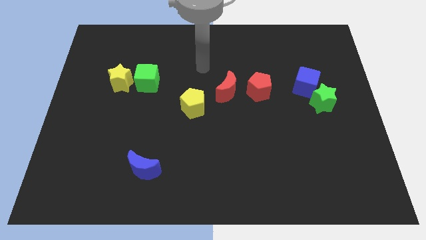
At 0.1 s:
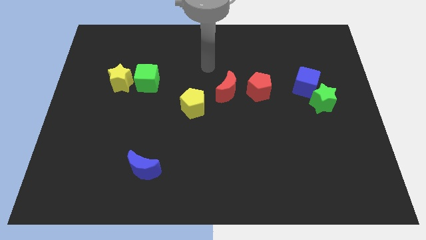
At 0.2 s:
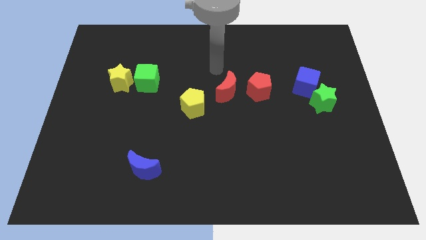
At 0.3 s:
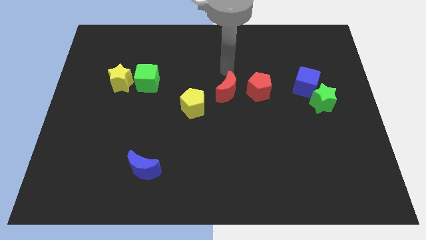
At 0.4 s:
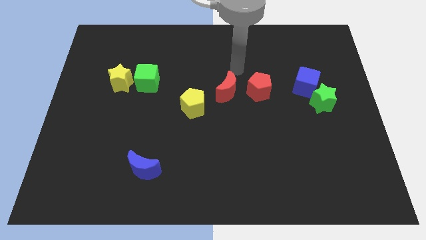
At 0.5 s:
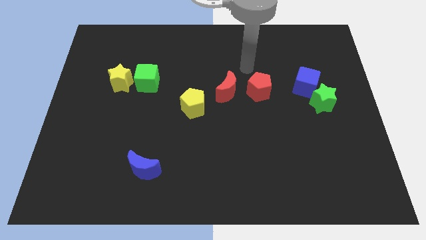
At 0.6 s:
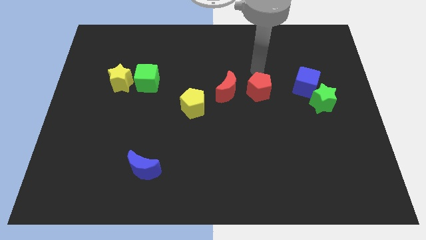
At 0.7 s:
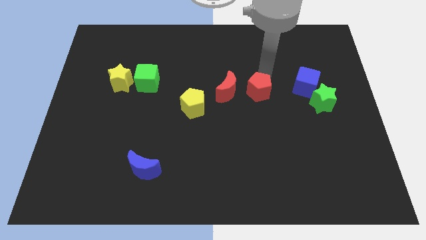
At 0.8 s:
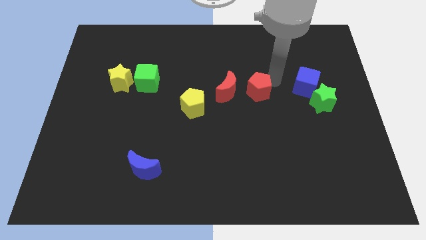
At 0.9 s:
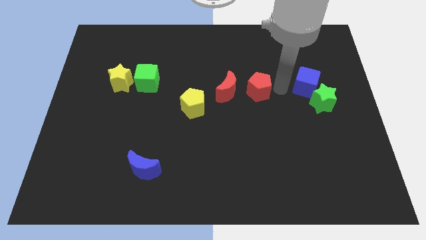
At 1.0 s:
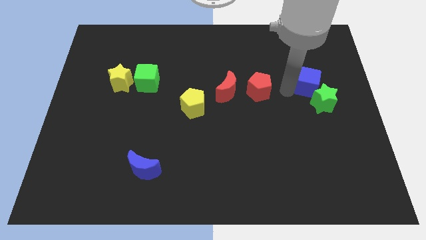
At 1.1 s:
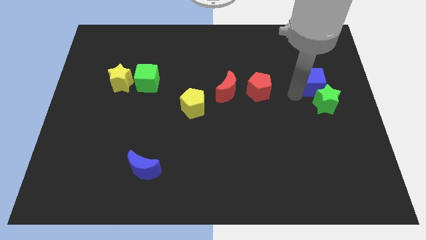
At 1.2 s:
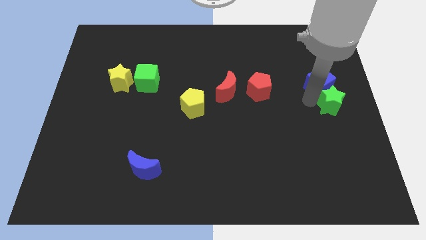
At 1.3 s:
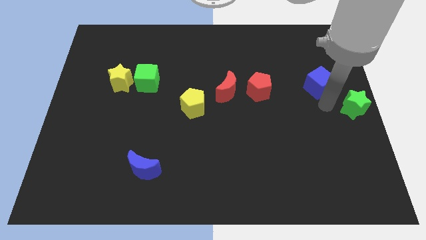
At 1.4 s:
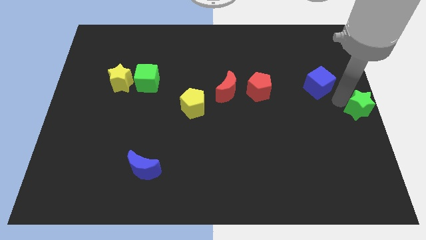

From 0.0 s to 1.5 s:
move the blue cube away from the green star

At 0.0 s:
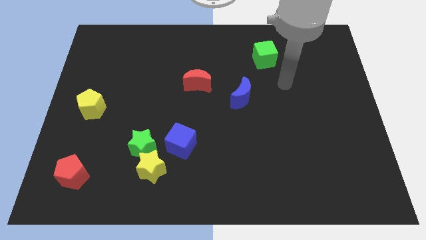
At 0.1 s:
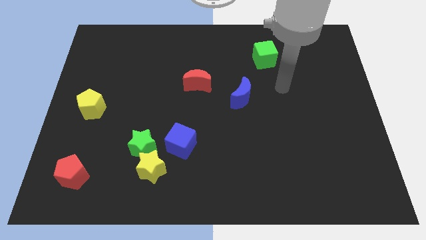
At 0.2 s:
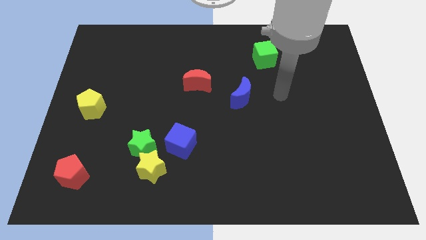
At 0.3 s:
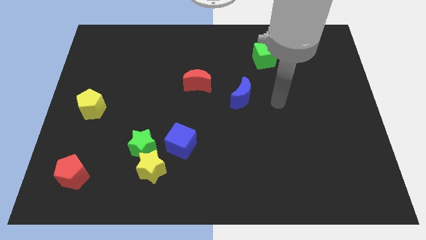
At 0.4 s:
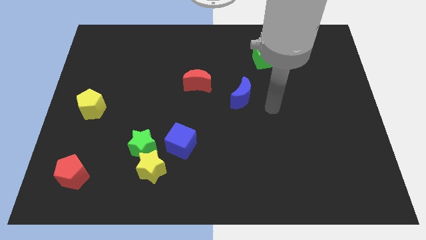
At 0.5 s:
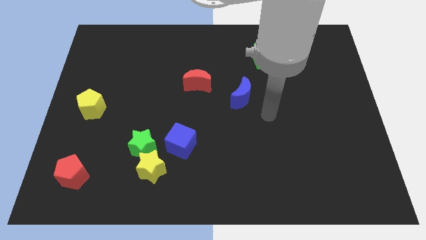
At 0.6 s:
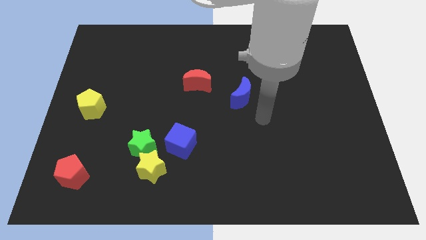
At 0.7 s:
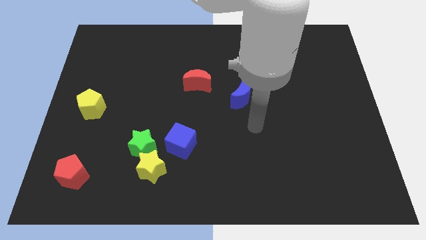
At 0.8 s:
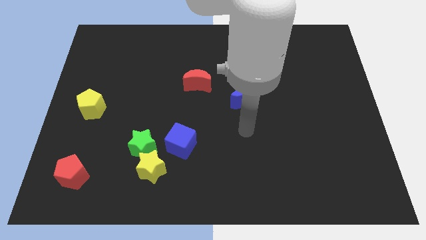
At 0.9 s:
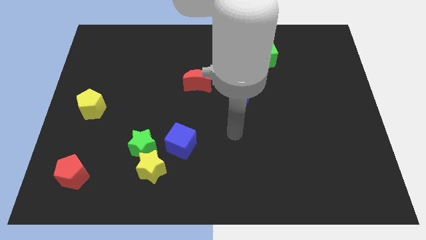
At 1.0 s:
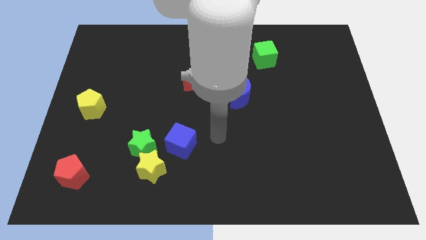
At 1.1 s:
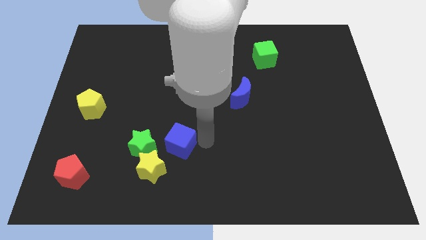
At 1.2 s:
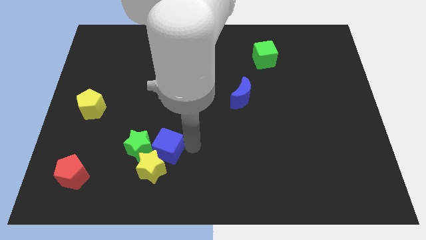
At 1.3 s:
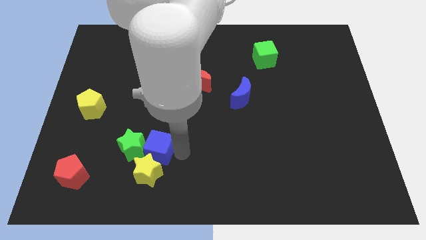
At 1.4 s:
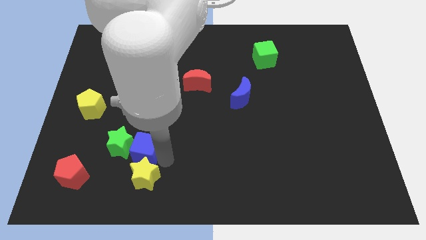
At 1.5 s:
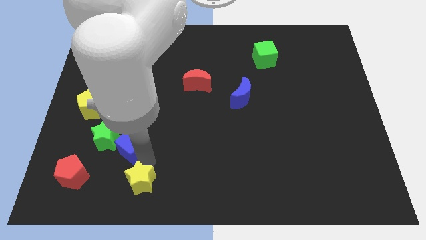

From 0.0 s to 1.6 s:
pull the green star apart from the yellow star and blue cube

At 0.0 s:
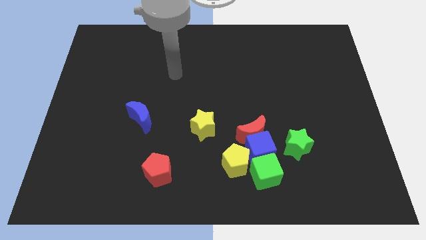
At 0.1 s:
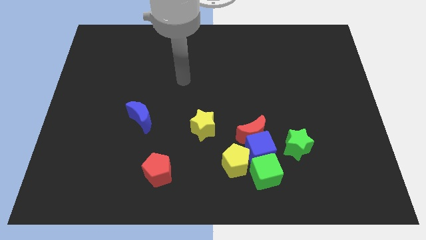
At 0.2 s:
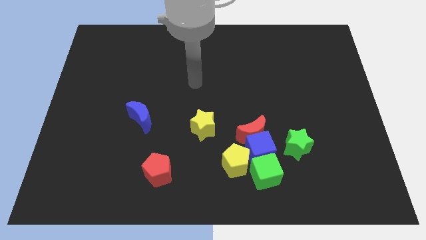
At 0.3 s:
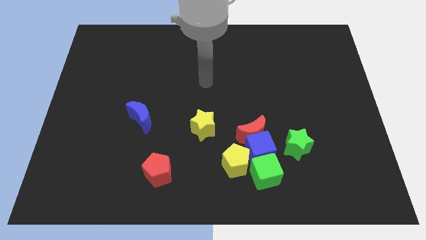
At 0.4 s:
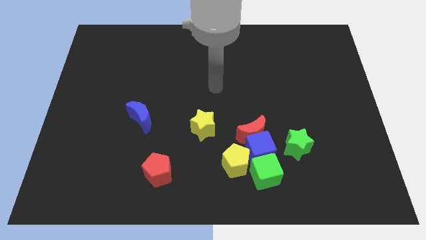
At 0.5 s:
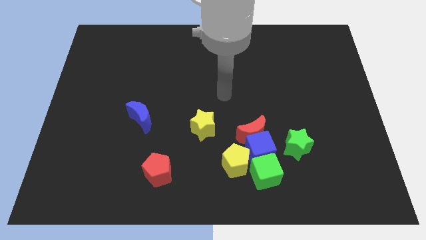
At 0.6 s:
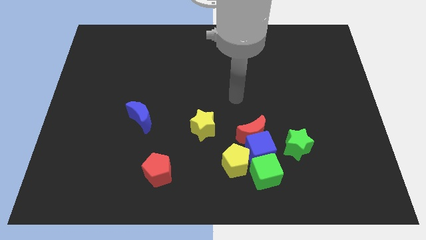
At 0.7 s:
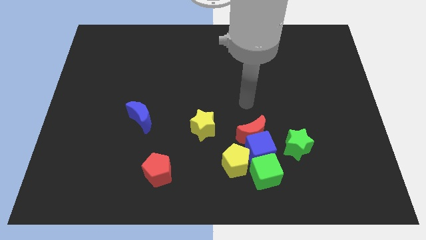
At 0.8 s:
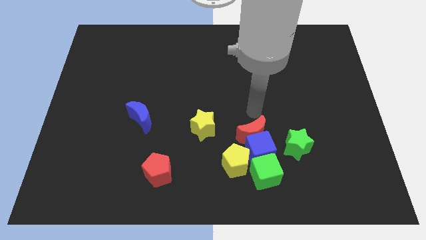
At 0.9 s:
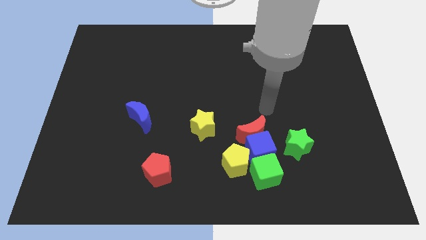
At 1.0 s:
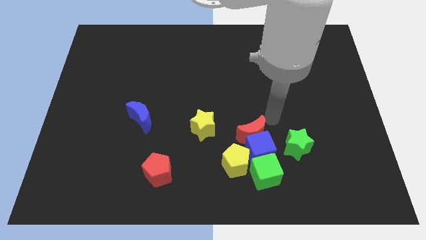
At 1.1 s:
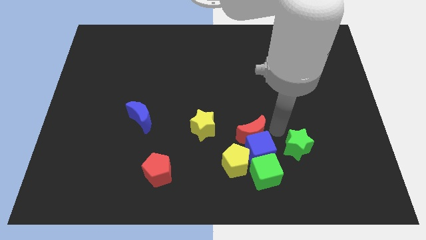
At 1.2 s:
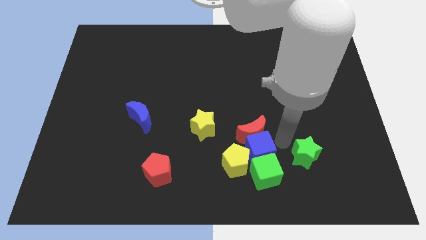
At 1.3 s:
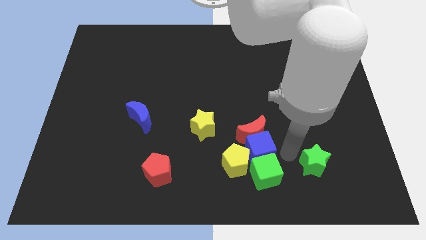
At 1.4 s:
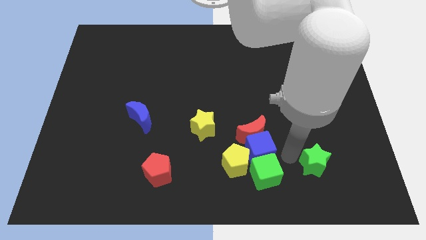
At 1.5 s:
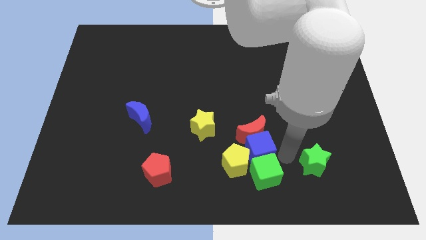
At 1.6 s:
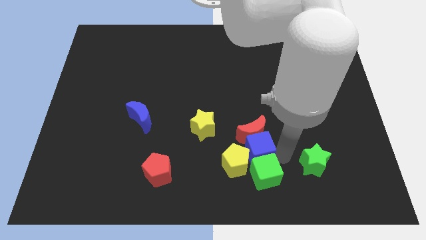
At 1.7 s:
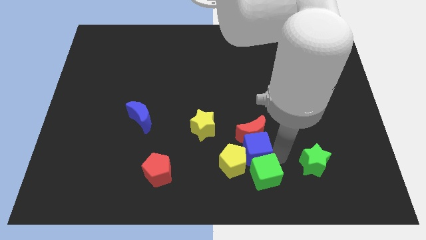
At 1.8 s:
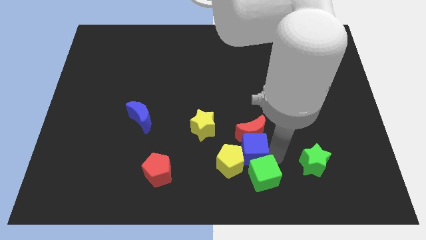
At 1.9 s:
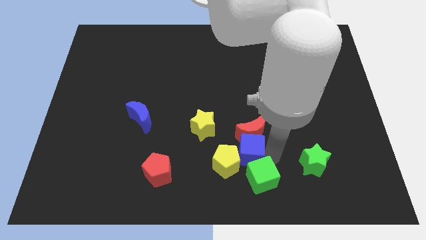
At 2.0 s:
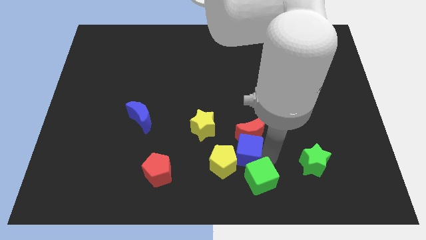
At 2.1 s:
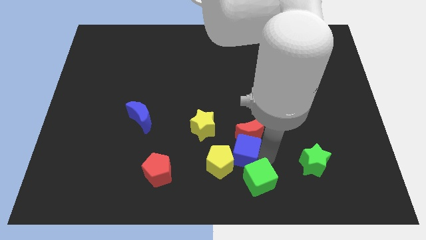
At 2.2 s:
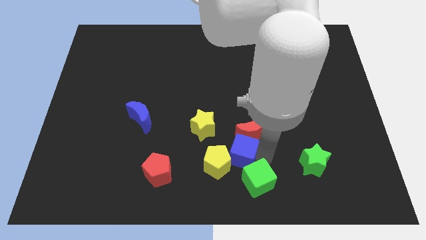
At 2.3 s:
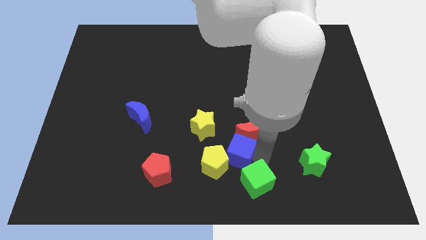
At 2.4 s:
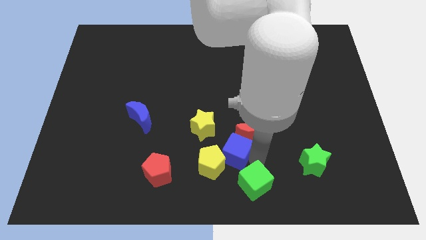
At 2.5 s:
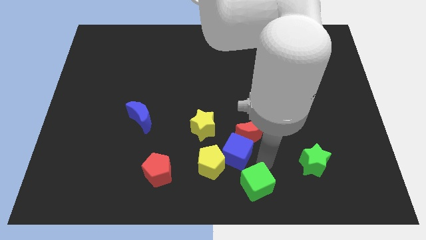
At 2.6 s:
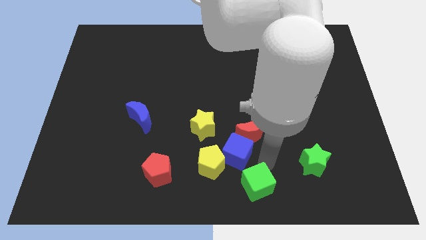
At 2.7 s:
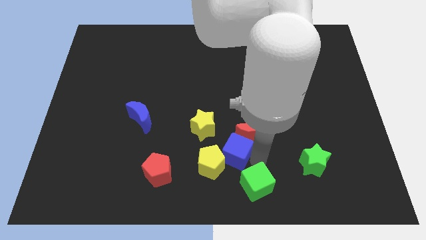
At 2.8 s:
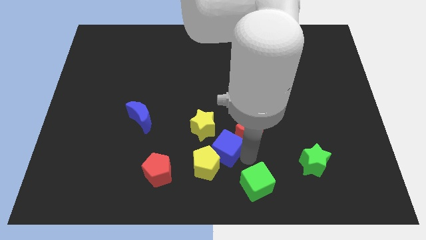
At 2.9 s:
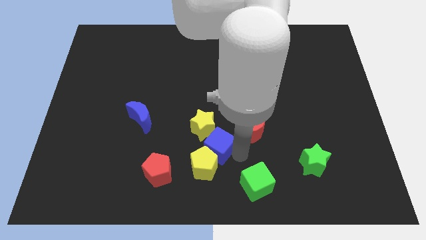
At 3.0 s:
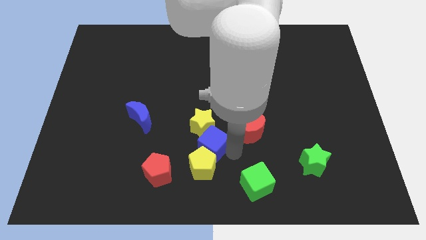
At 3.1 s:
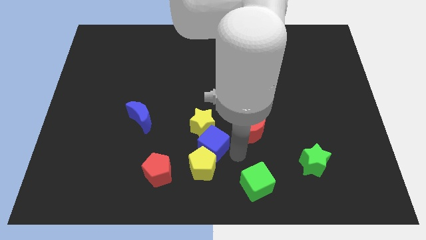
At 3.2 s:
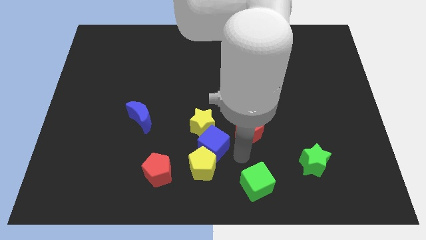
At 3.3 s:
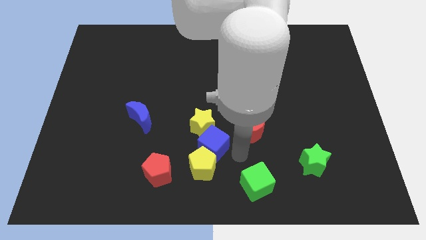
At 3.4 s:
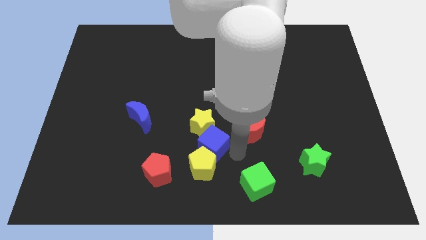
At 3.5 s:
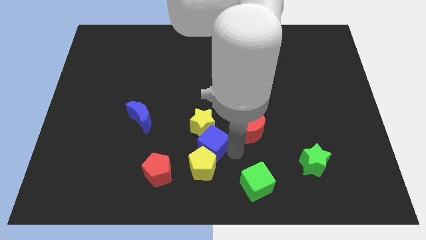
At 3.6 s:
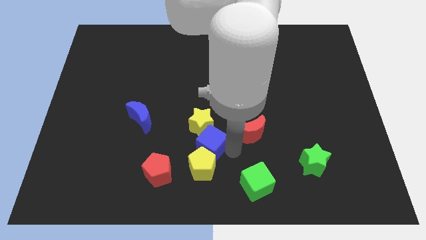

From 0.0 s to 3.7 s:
pull the blue cube apart from the group

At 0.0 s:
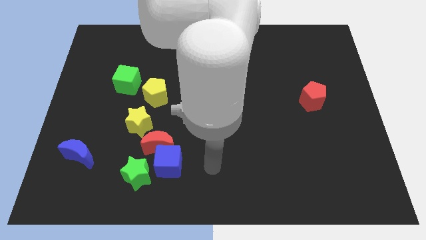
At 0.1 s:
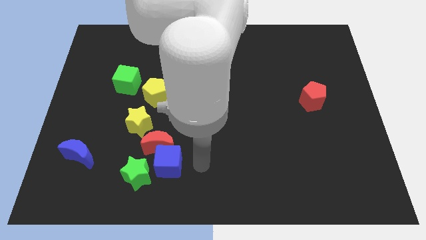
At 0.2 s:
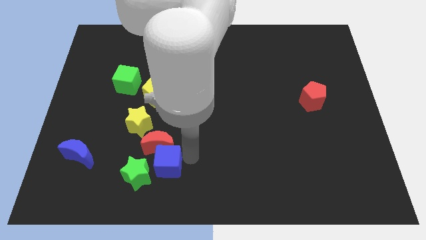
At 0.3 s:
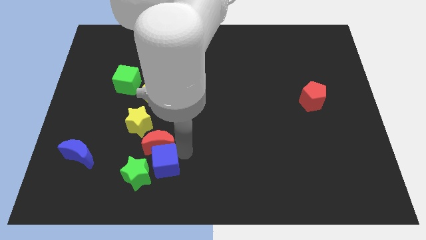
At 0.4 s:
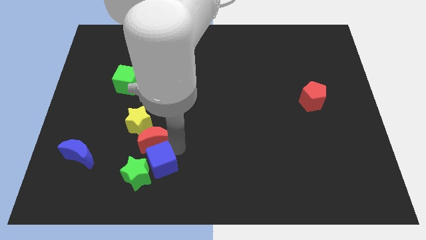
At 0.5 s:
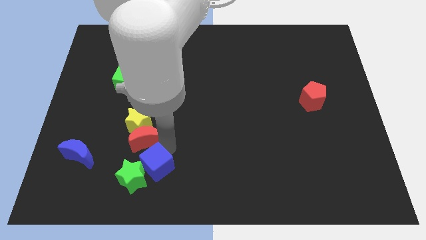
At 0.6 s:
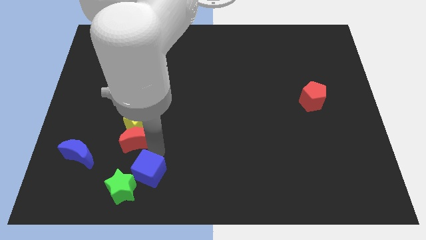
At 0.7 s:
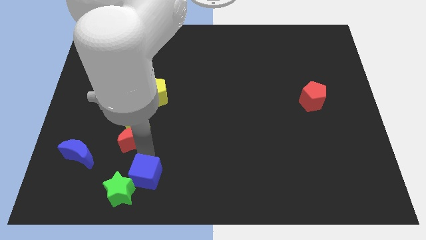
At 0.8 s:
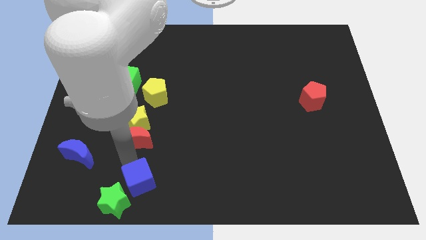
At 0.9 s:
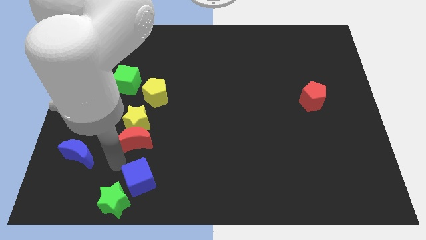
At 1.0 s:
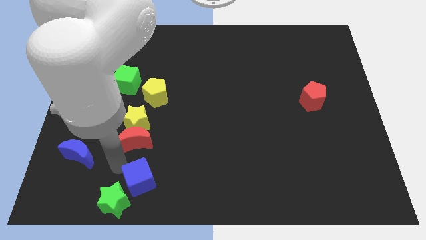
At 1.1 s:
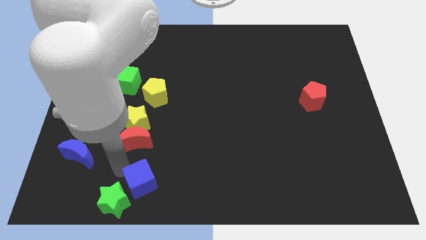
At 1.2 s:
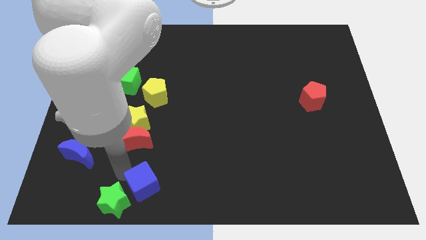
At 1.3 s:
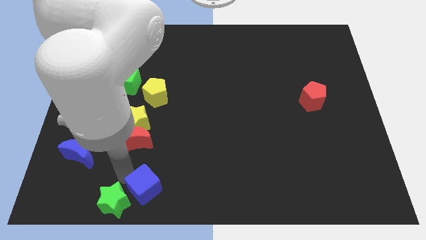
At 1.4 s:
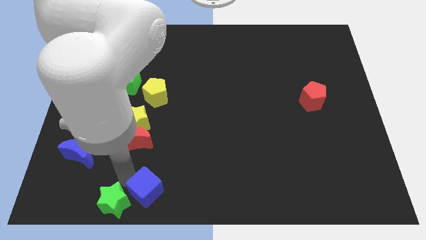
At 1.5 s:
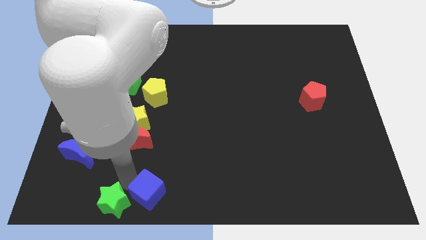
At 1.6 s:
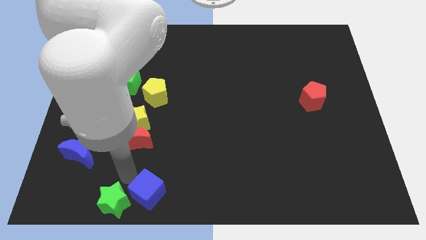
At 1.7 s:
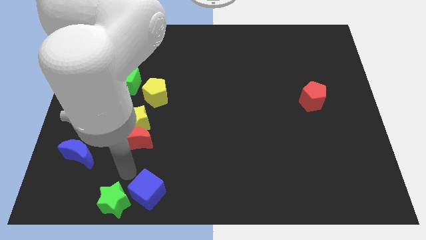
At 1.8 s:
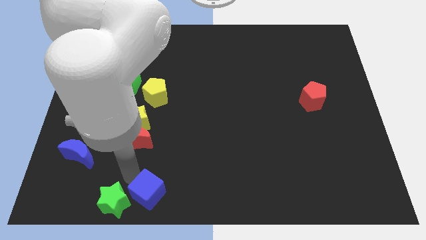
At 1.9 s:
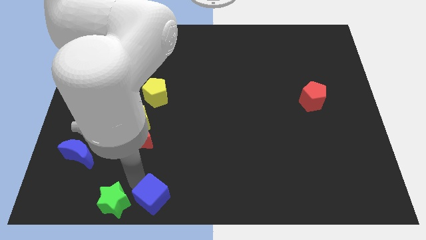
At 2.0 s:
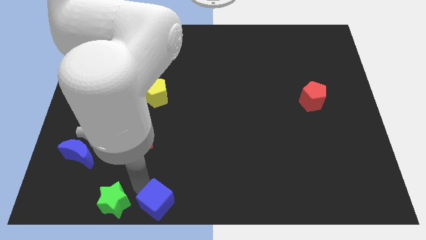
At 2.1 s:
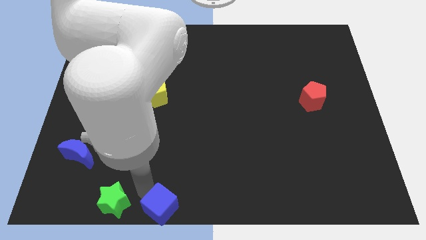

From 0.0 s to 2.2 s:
separate the blue cube from the red moon and green star

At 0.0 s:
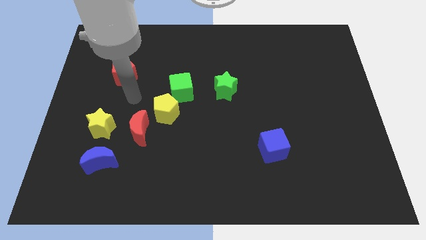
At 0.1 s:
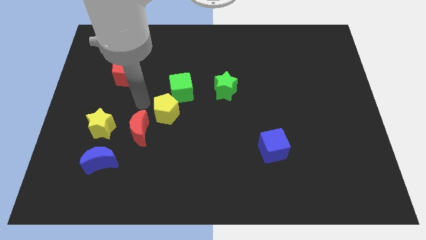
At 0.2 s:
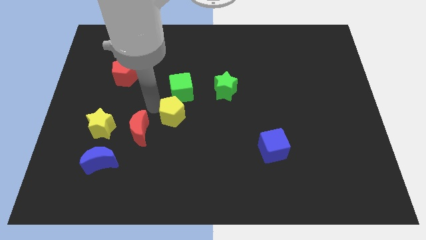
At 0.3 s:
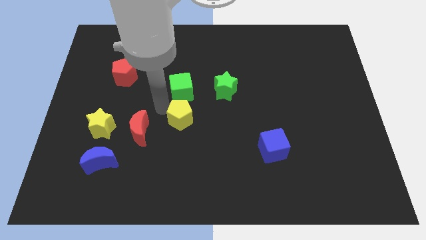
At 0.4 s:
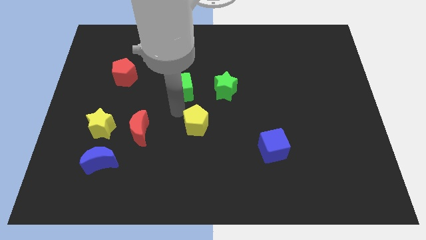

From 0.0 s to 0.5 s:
move the green cube away from the yellow pentagon
